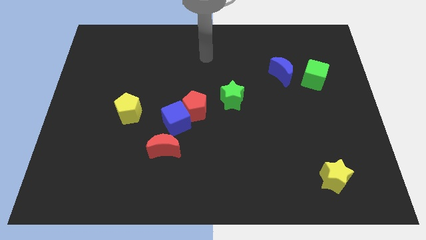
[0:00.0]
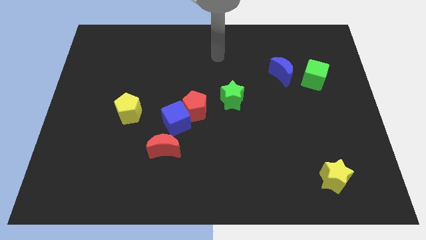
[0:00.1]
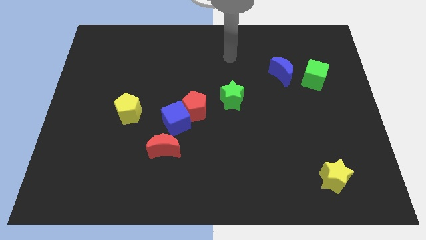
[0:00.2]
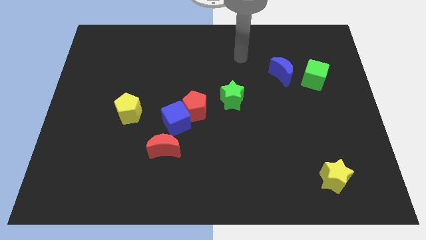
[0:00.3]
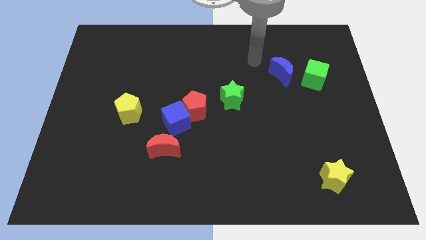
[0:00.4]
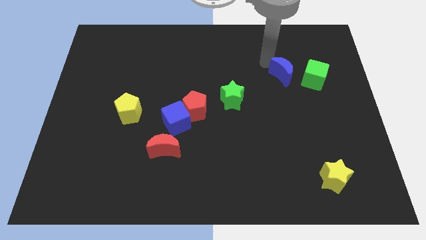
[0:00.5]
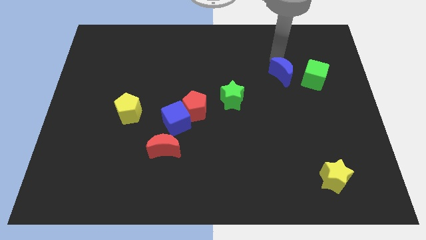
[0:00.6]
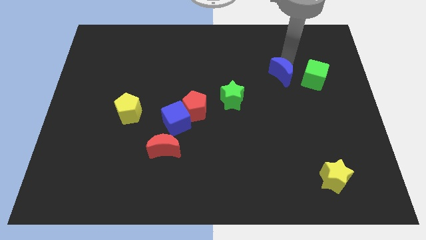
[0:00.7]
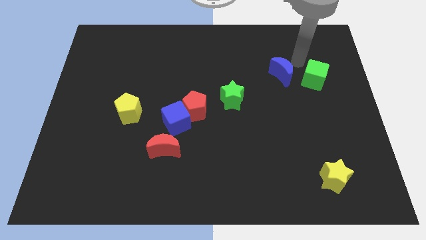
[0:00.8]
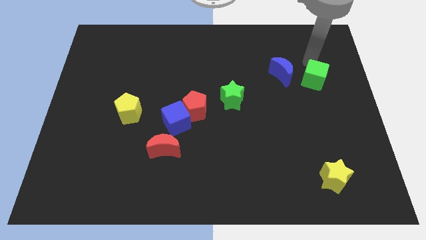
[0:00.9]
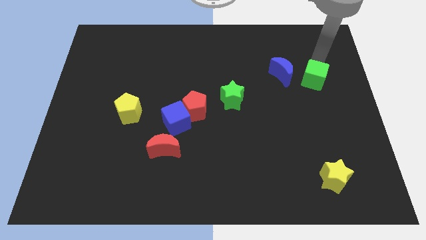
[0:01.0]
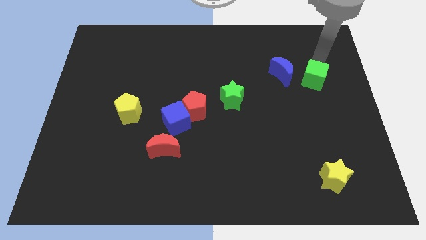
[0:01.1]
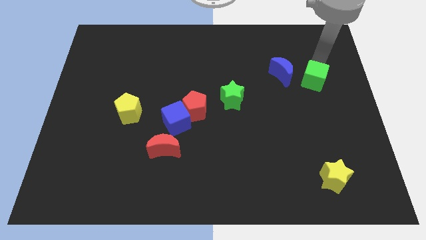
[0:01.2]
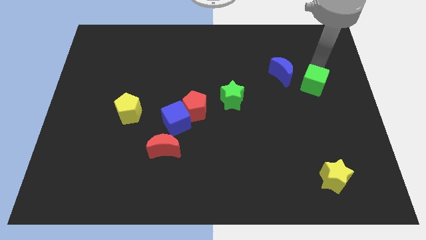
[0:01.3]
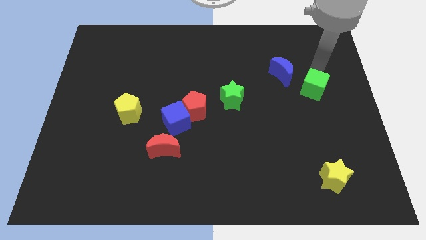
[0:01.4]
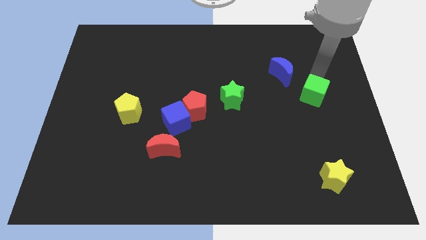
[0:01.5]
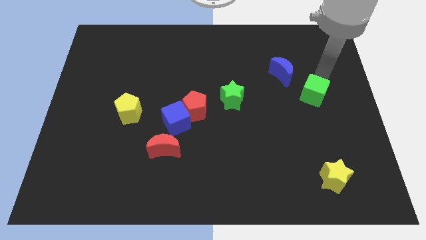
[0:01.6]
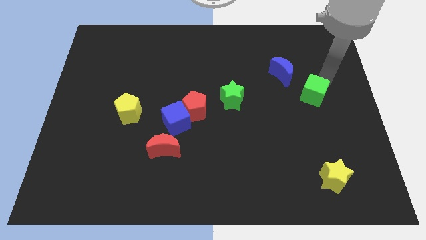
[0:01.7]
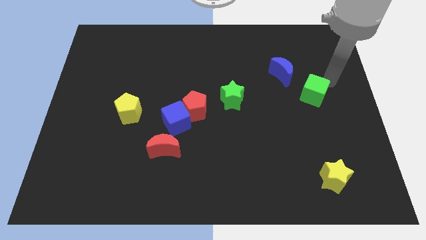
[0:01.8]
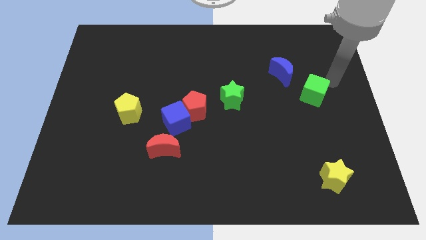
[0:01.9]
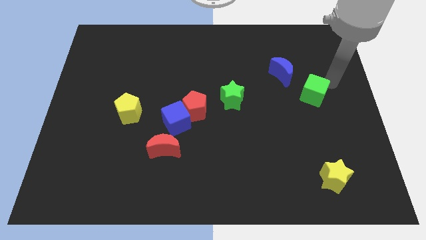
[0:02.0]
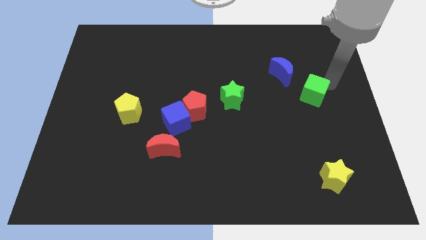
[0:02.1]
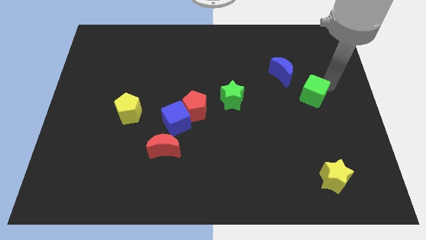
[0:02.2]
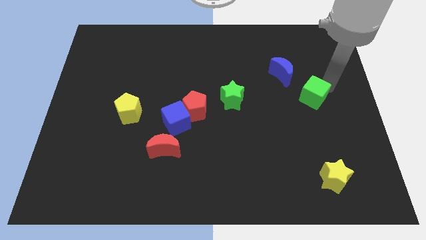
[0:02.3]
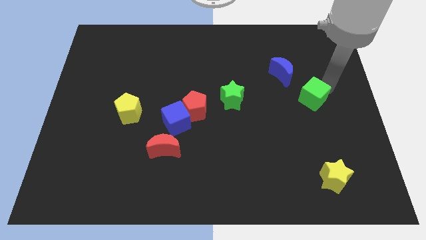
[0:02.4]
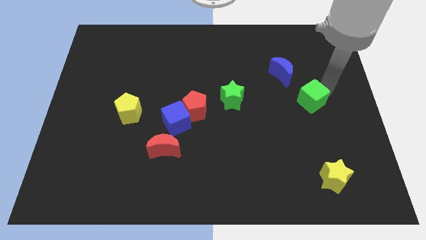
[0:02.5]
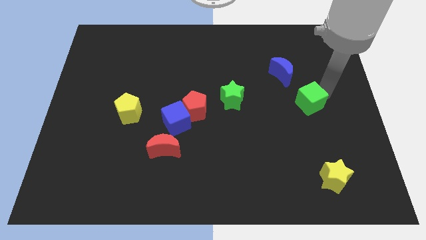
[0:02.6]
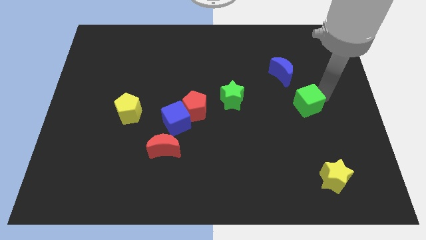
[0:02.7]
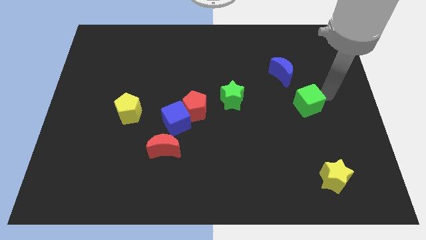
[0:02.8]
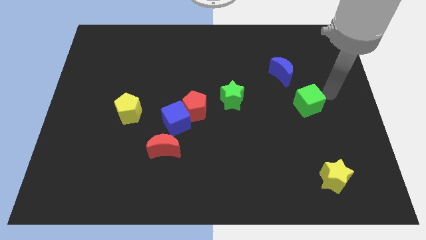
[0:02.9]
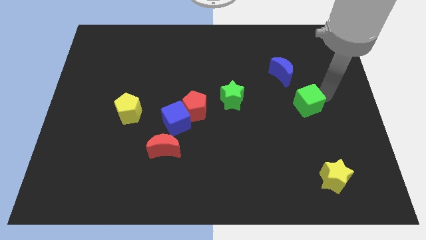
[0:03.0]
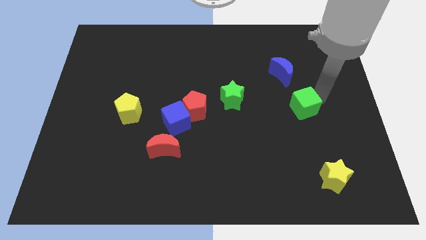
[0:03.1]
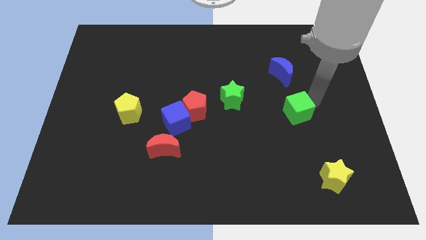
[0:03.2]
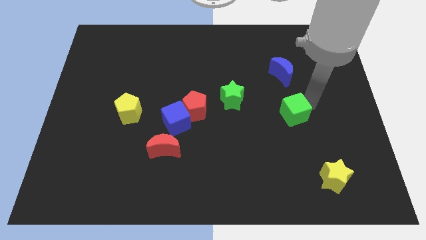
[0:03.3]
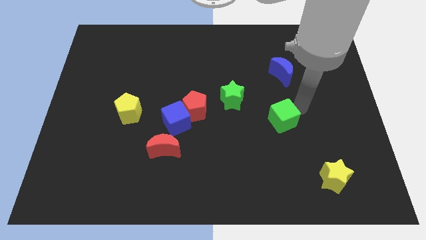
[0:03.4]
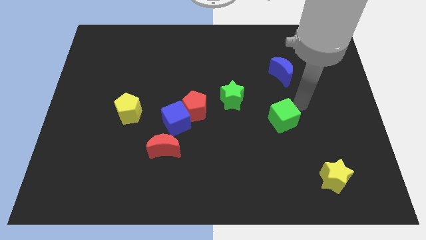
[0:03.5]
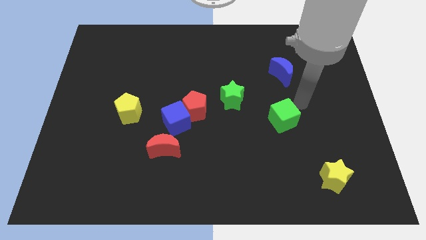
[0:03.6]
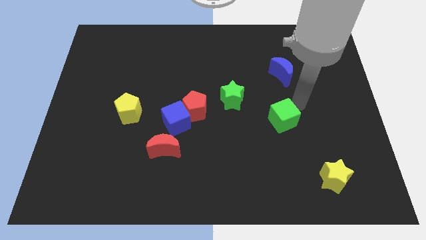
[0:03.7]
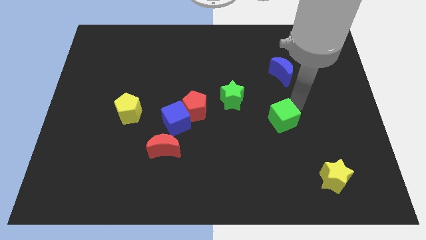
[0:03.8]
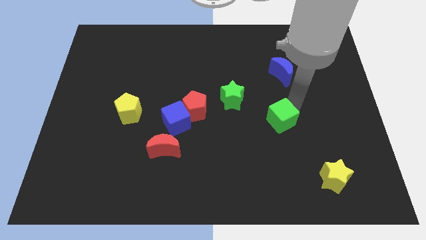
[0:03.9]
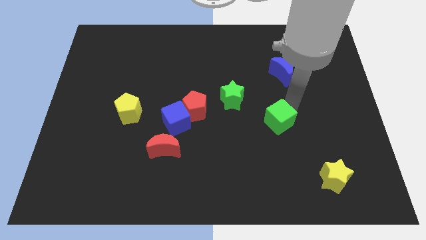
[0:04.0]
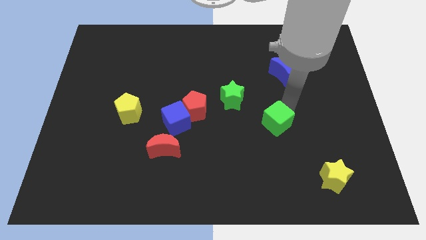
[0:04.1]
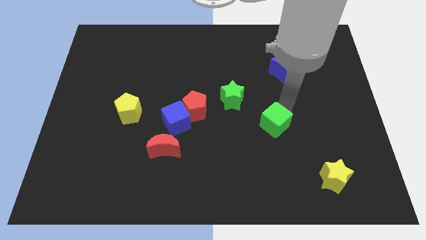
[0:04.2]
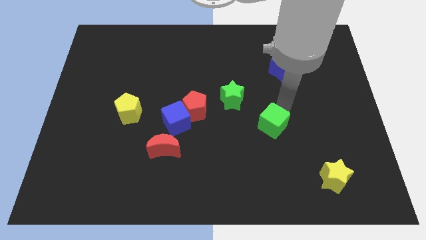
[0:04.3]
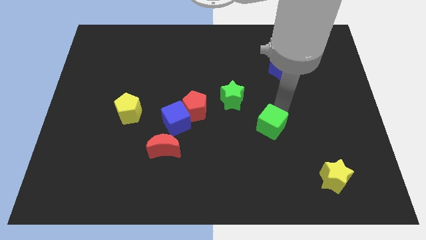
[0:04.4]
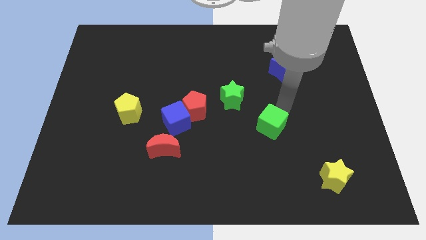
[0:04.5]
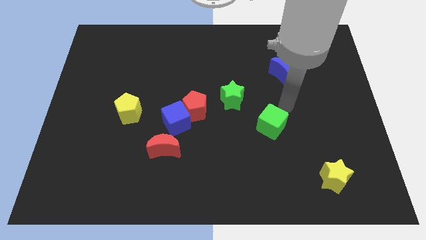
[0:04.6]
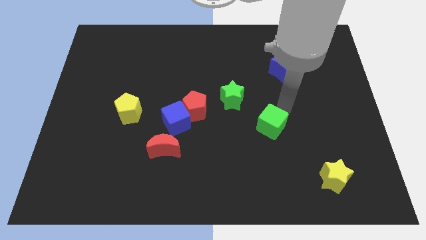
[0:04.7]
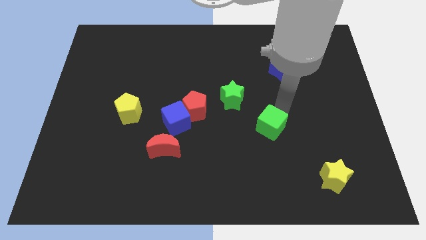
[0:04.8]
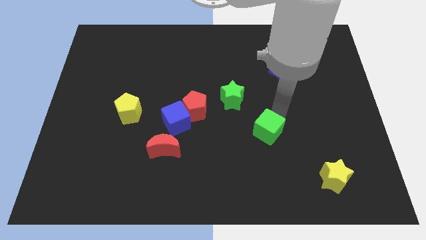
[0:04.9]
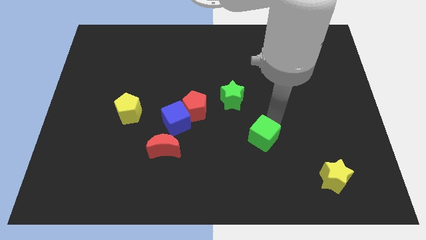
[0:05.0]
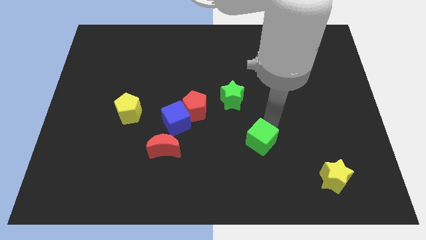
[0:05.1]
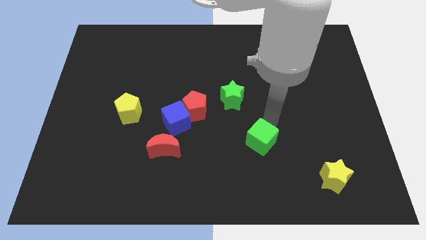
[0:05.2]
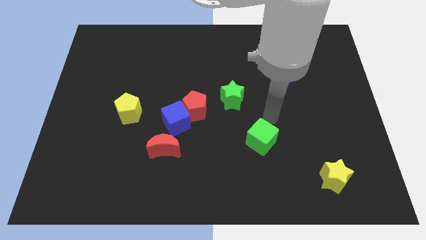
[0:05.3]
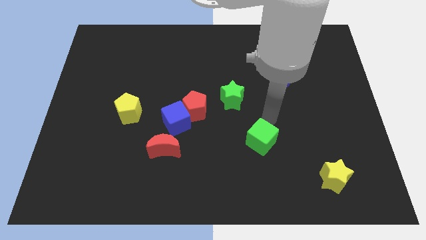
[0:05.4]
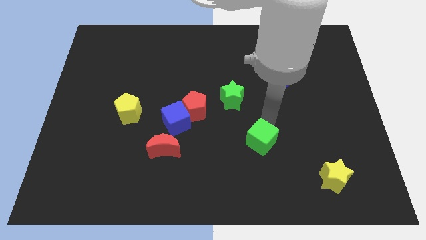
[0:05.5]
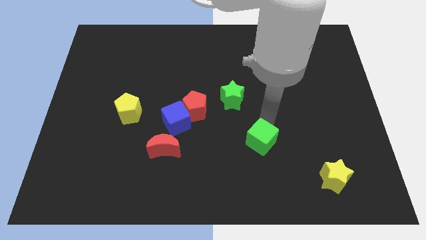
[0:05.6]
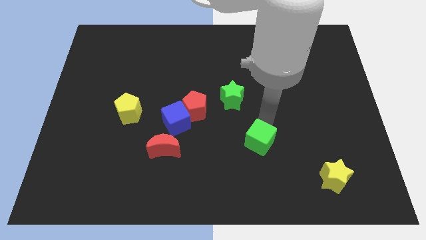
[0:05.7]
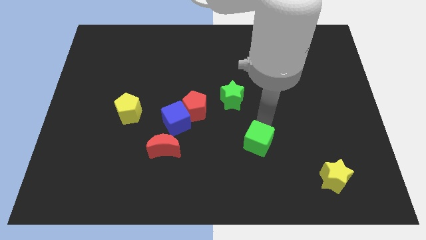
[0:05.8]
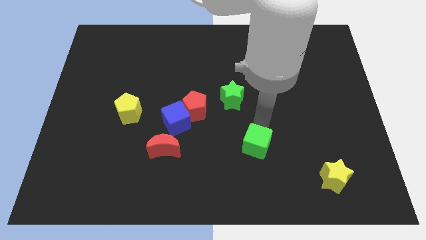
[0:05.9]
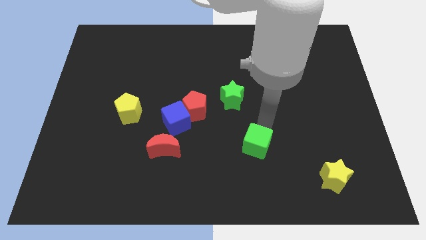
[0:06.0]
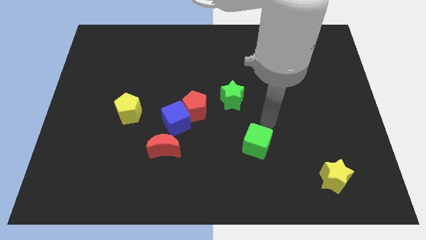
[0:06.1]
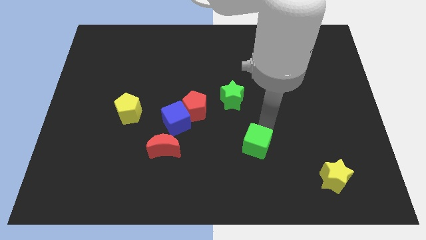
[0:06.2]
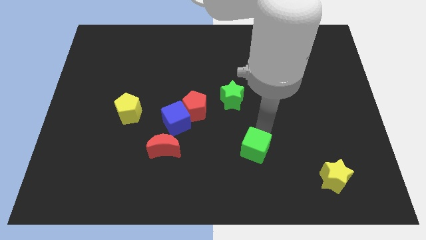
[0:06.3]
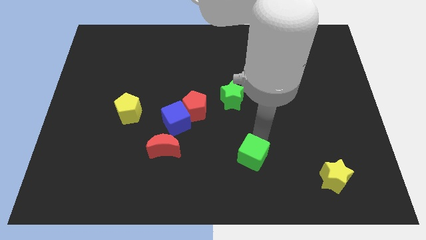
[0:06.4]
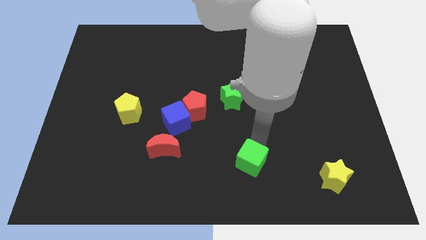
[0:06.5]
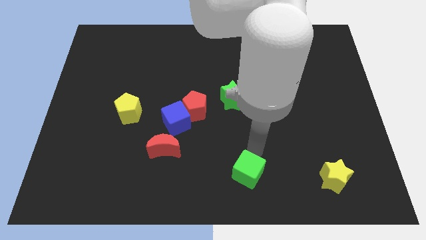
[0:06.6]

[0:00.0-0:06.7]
put the green cube to the bottom
